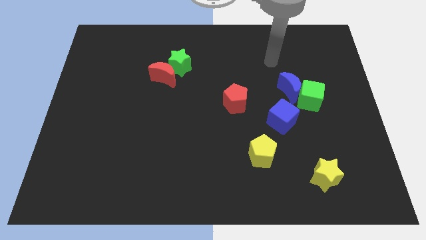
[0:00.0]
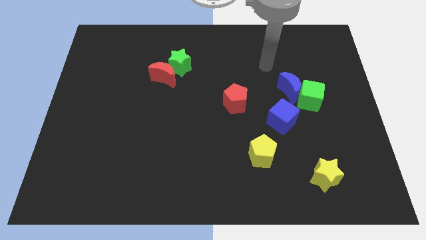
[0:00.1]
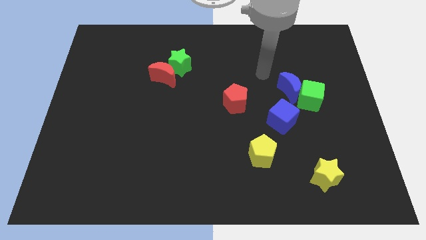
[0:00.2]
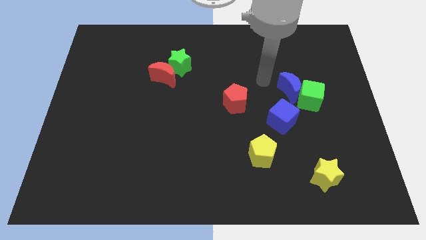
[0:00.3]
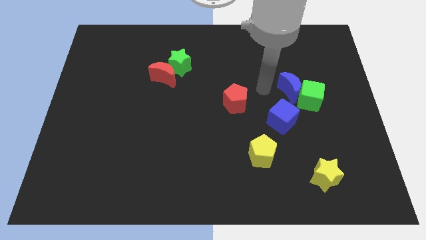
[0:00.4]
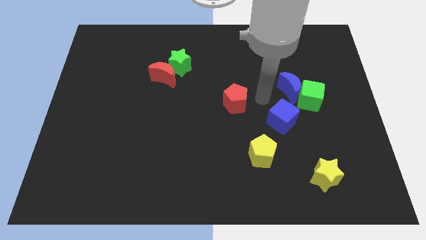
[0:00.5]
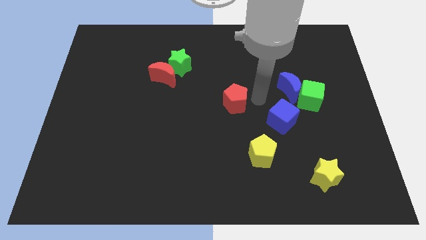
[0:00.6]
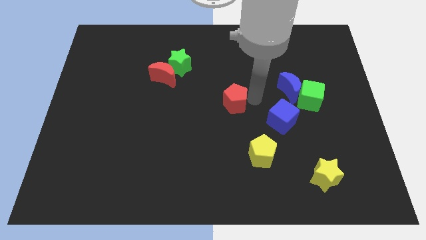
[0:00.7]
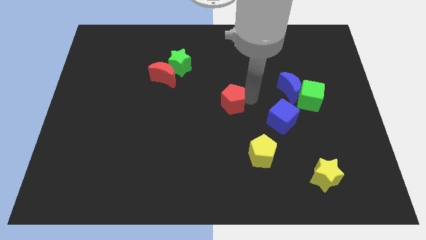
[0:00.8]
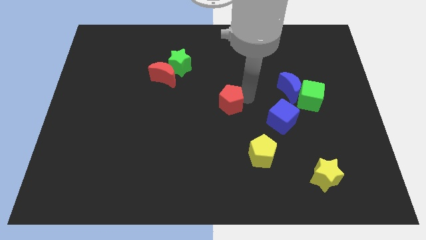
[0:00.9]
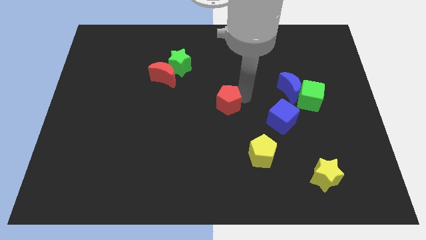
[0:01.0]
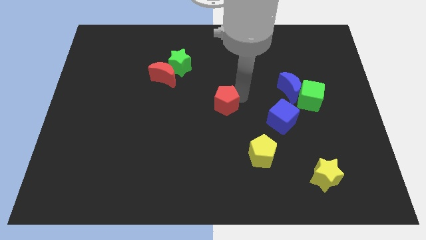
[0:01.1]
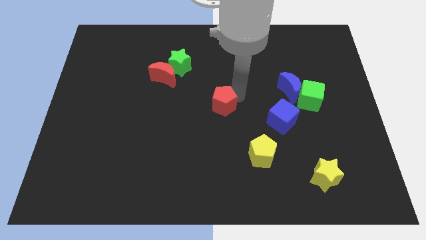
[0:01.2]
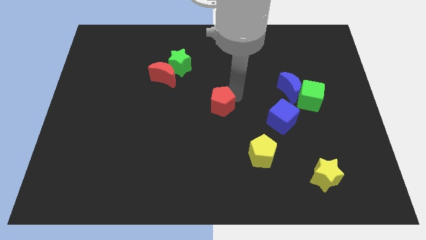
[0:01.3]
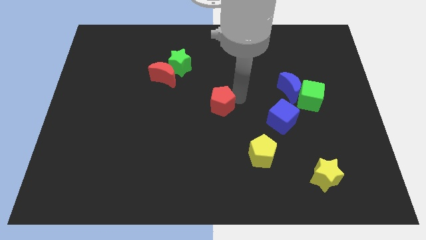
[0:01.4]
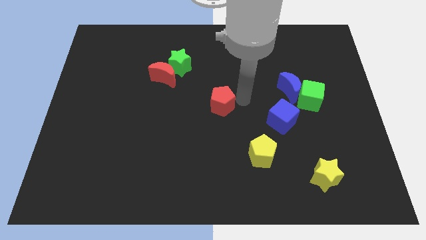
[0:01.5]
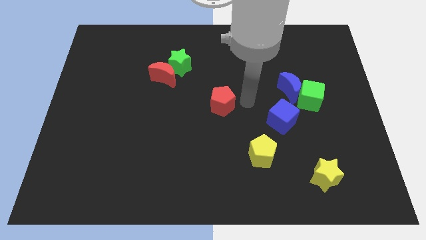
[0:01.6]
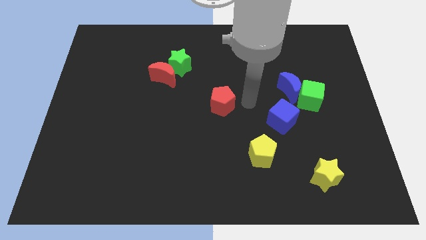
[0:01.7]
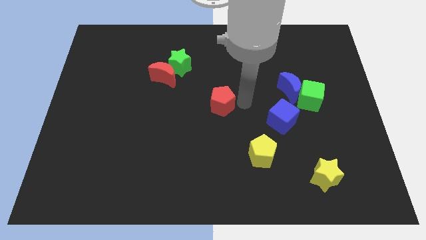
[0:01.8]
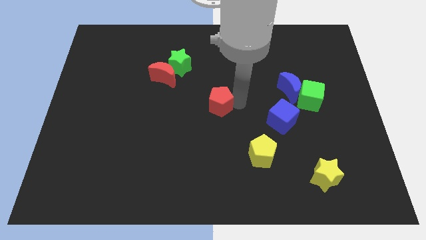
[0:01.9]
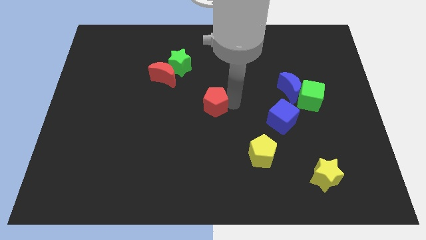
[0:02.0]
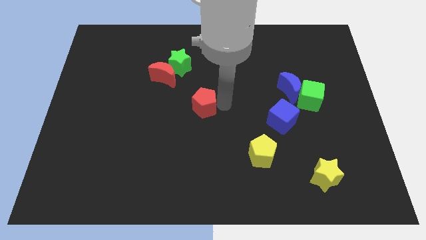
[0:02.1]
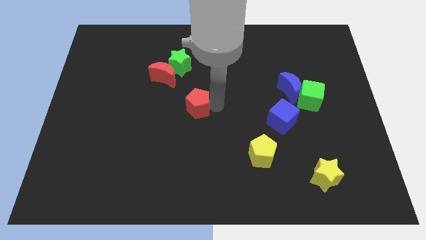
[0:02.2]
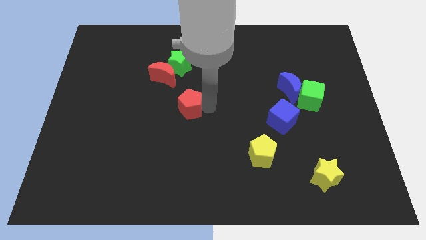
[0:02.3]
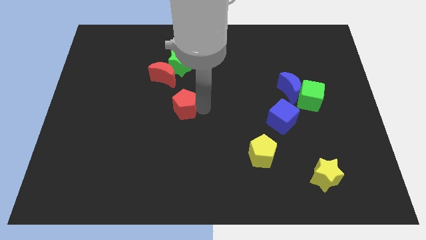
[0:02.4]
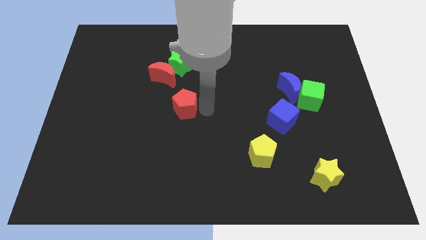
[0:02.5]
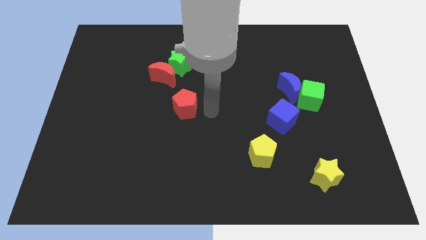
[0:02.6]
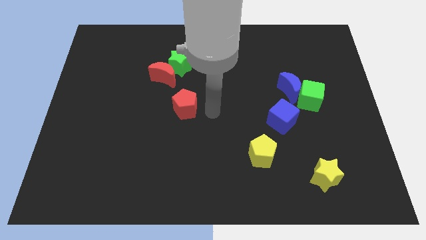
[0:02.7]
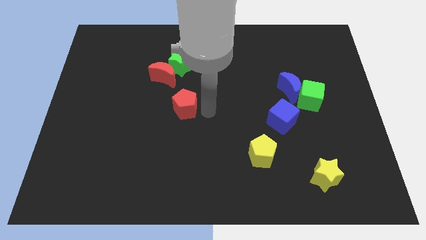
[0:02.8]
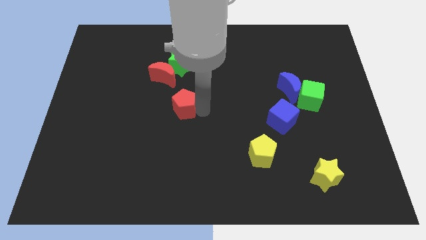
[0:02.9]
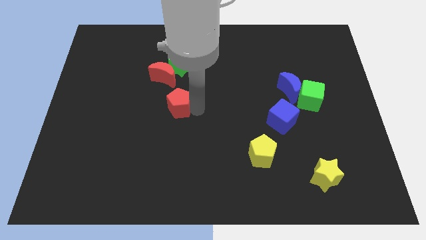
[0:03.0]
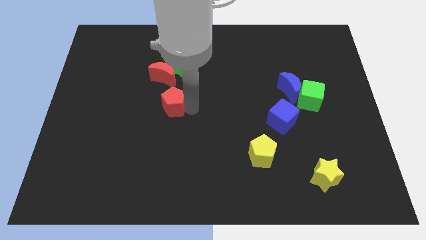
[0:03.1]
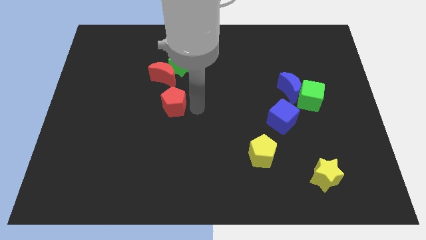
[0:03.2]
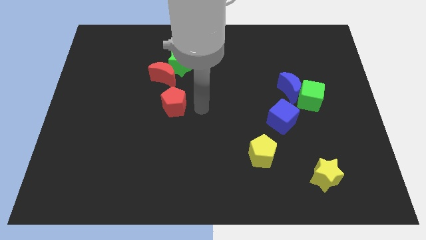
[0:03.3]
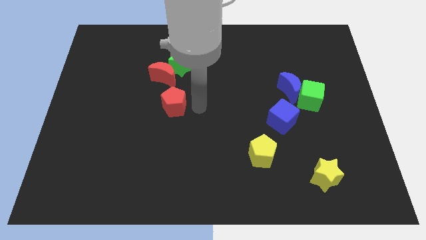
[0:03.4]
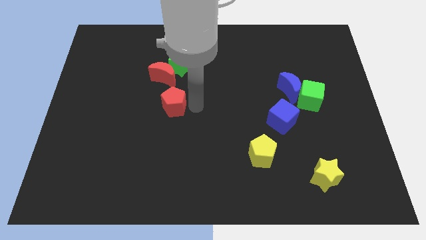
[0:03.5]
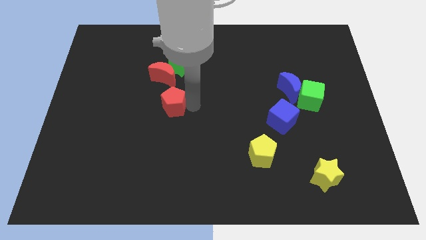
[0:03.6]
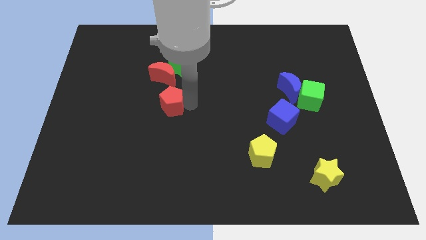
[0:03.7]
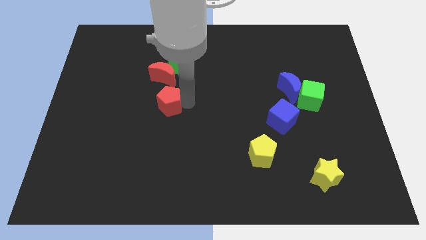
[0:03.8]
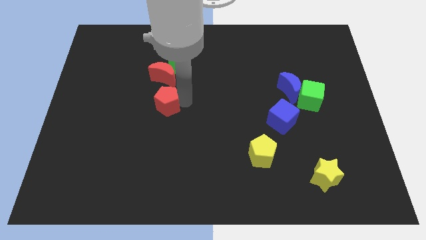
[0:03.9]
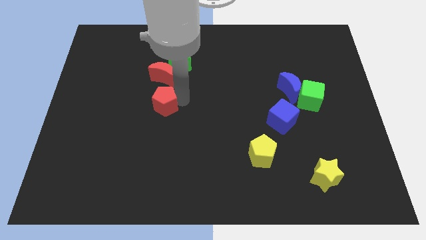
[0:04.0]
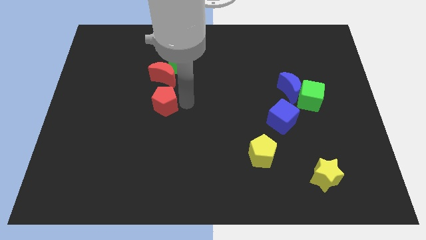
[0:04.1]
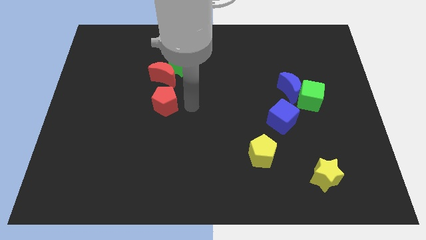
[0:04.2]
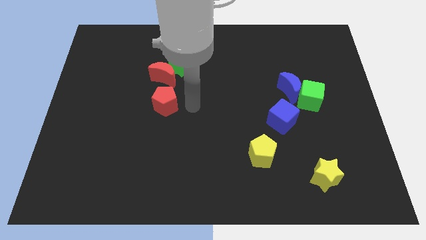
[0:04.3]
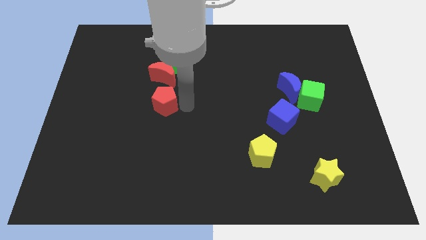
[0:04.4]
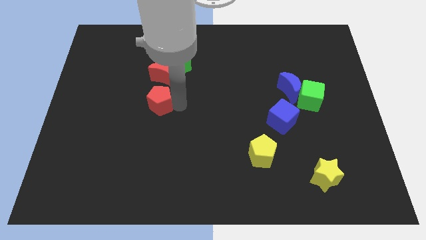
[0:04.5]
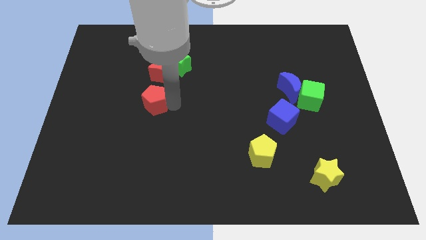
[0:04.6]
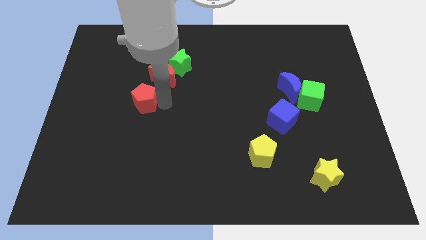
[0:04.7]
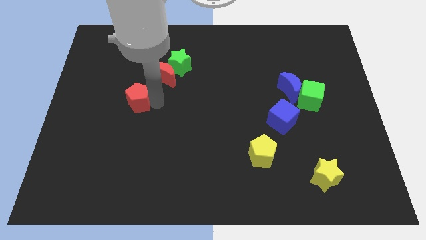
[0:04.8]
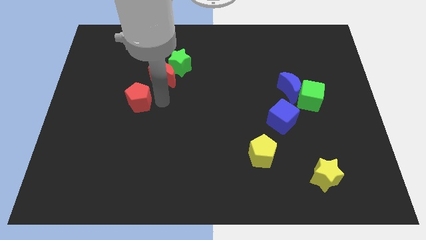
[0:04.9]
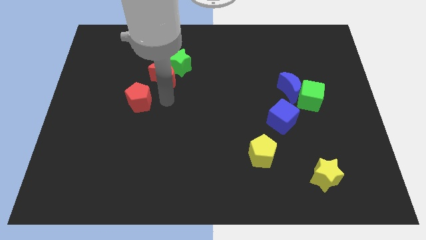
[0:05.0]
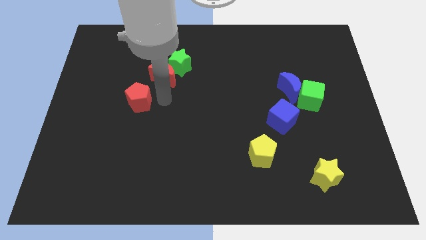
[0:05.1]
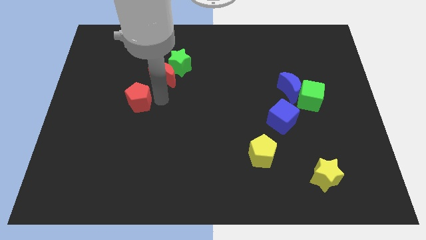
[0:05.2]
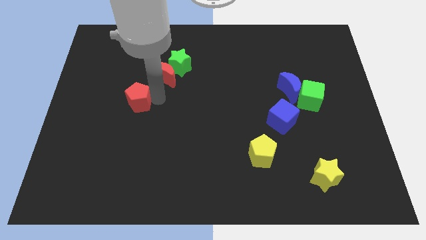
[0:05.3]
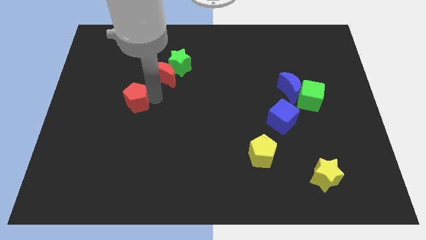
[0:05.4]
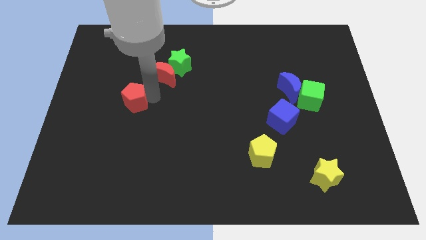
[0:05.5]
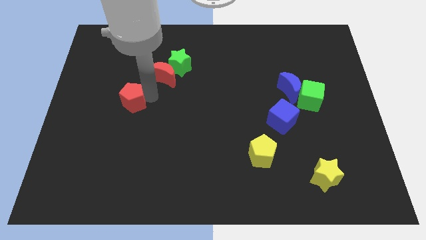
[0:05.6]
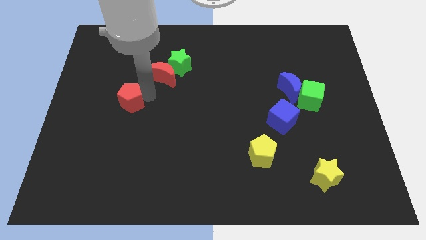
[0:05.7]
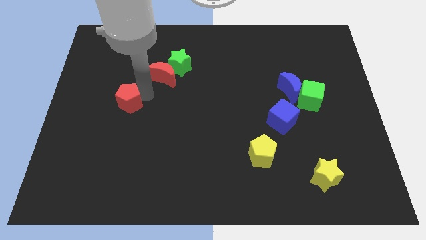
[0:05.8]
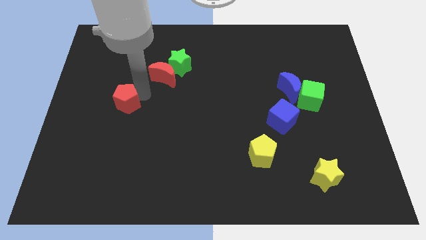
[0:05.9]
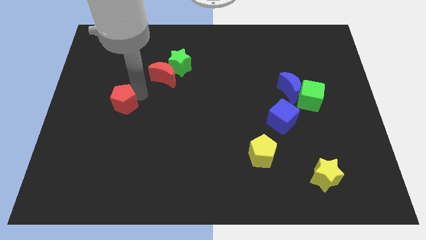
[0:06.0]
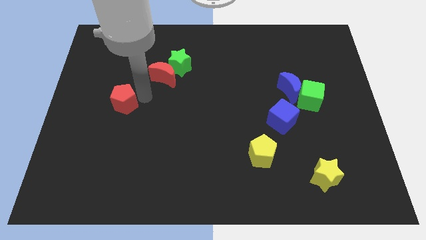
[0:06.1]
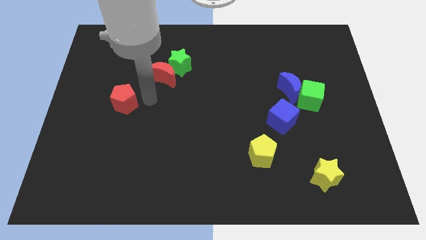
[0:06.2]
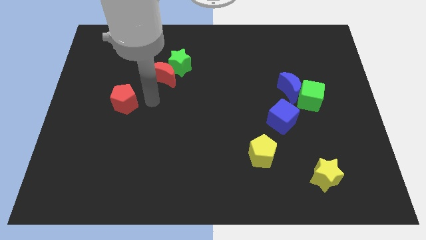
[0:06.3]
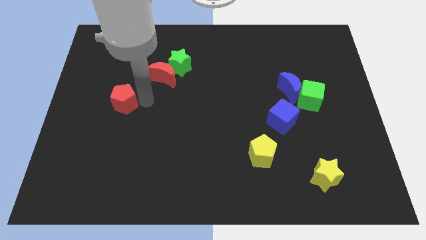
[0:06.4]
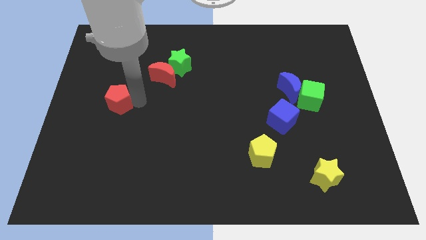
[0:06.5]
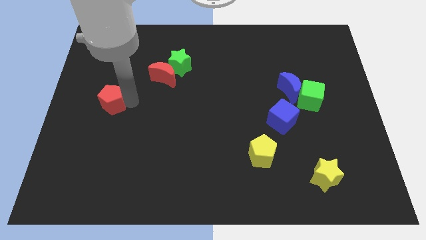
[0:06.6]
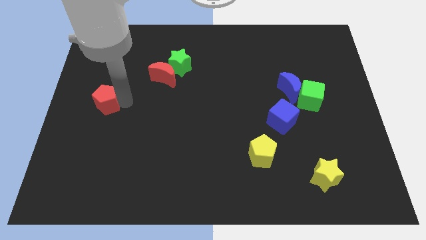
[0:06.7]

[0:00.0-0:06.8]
slide the red pentagon to the left side
